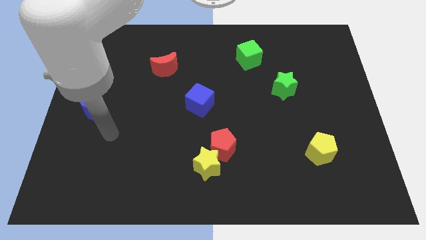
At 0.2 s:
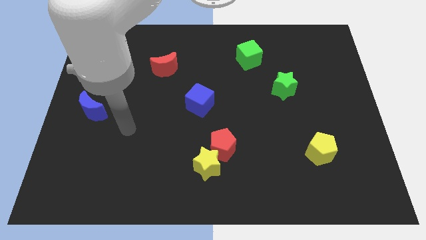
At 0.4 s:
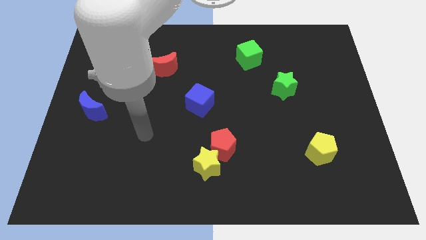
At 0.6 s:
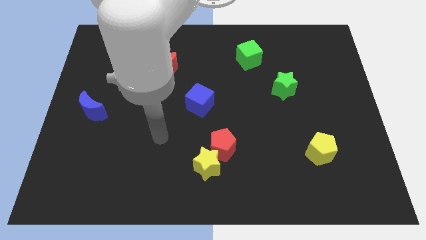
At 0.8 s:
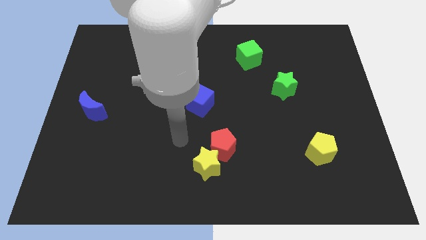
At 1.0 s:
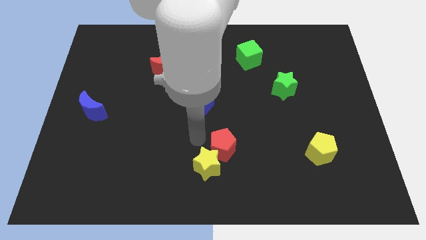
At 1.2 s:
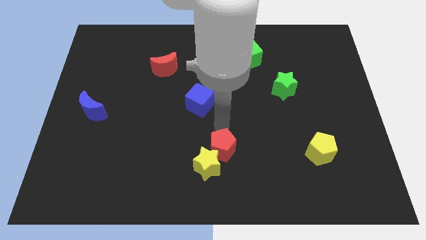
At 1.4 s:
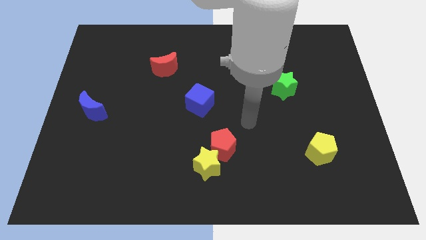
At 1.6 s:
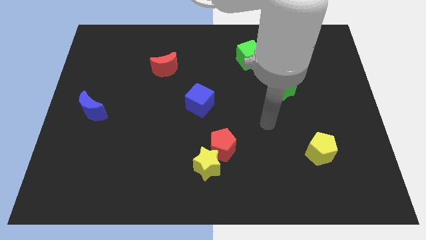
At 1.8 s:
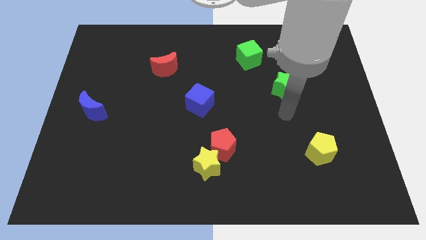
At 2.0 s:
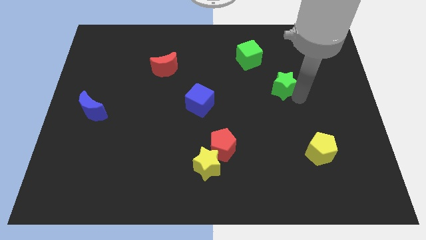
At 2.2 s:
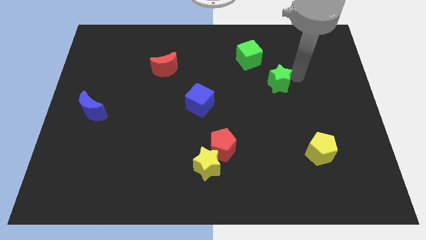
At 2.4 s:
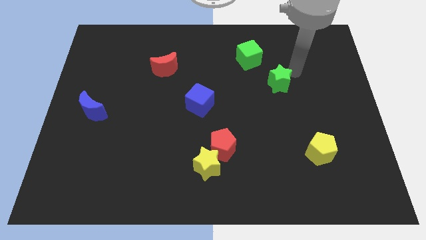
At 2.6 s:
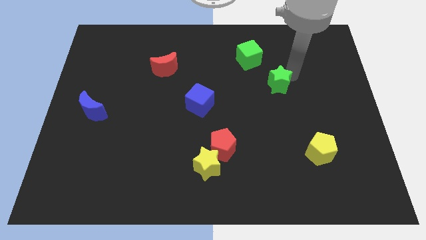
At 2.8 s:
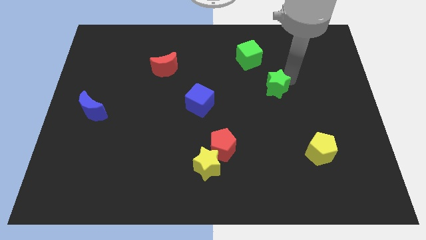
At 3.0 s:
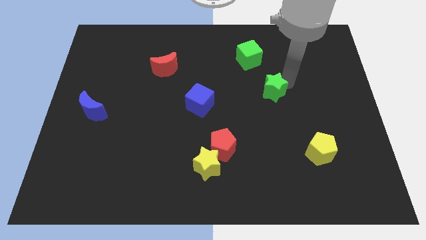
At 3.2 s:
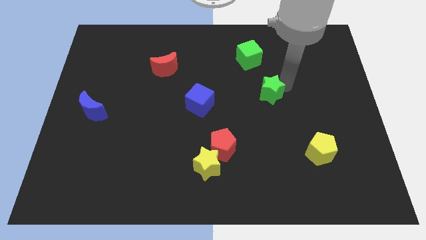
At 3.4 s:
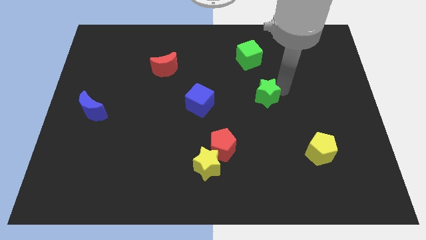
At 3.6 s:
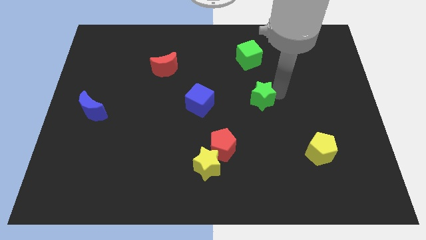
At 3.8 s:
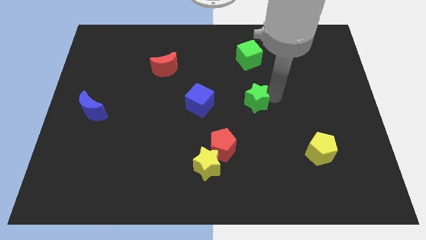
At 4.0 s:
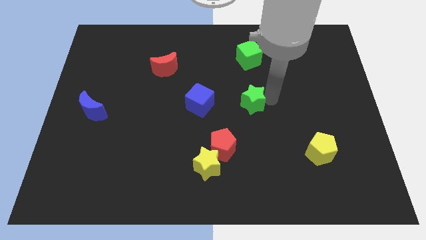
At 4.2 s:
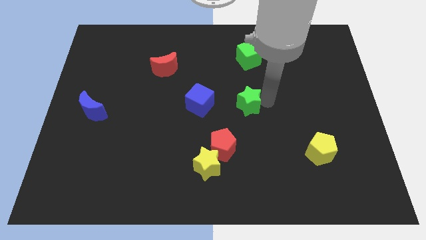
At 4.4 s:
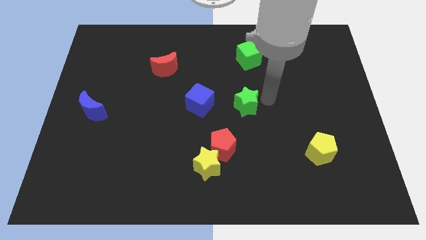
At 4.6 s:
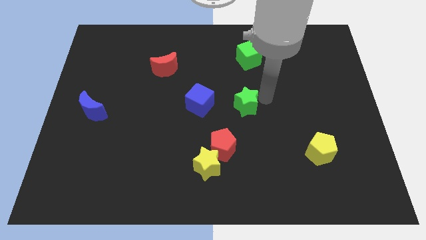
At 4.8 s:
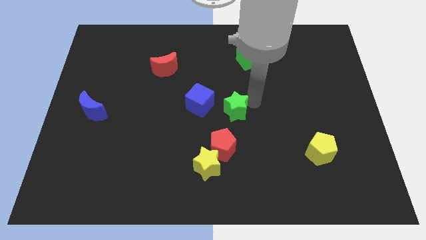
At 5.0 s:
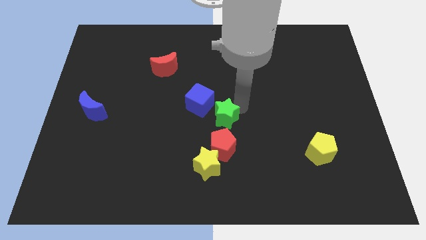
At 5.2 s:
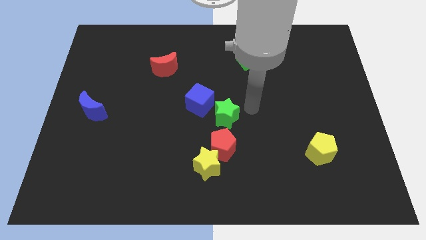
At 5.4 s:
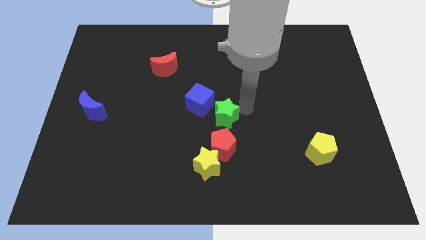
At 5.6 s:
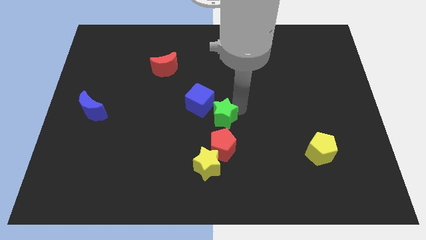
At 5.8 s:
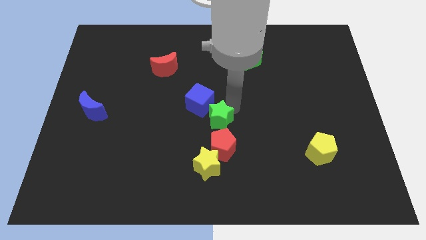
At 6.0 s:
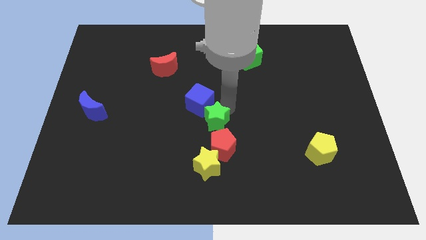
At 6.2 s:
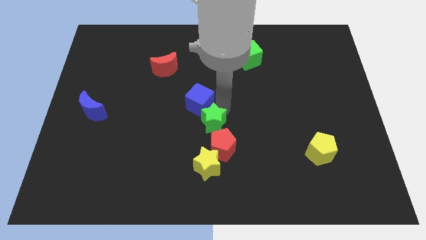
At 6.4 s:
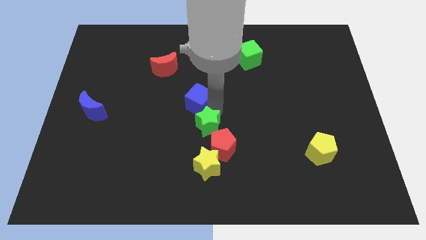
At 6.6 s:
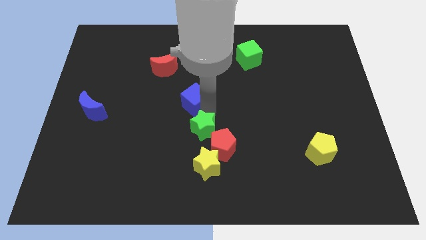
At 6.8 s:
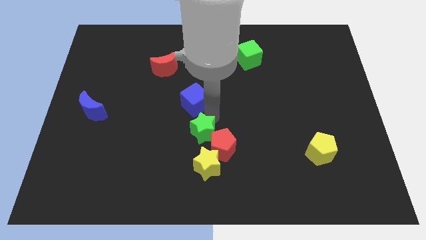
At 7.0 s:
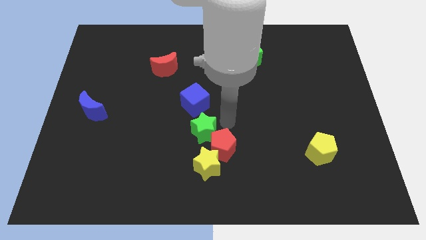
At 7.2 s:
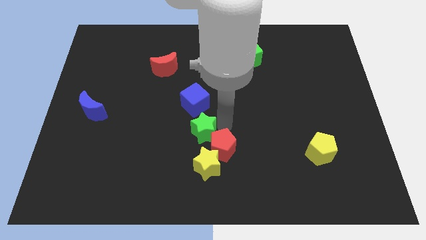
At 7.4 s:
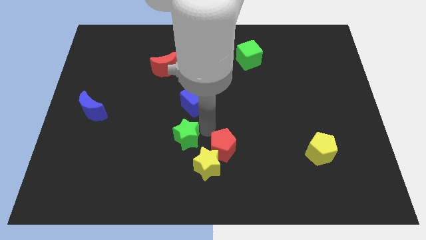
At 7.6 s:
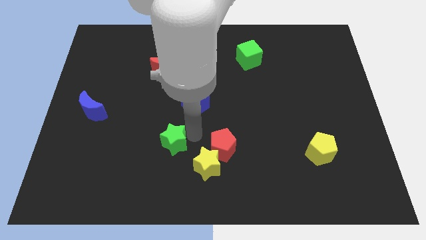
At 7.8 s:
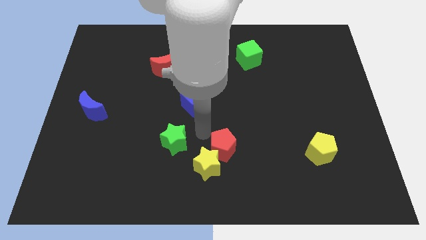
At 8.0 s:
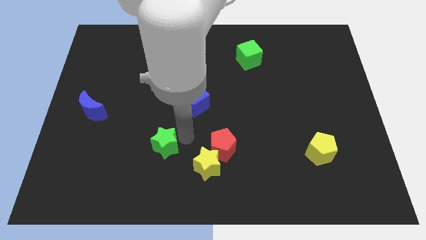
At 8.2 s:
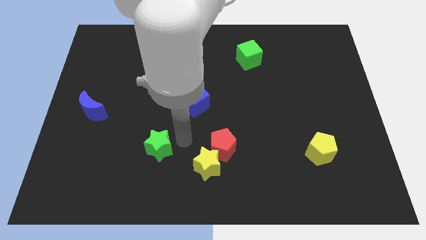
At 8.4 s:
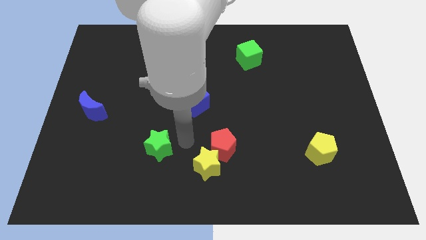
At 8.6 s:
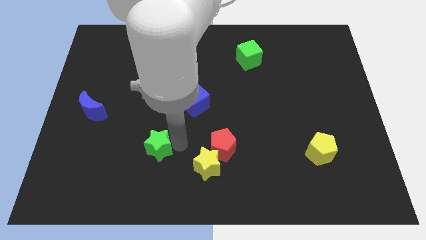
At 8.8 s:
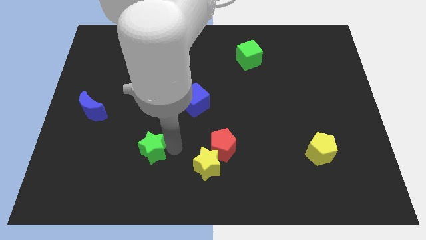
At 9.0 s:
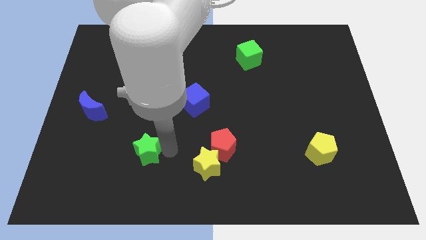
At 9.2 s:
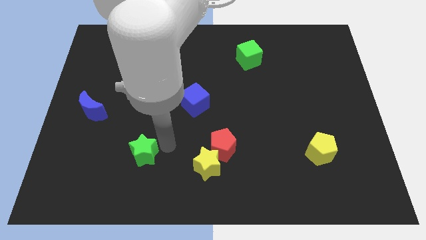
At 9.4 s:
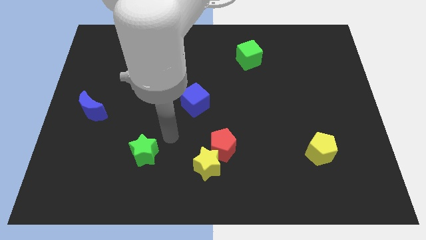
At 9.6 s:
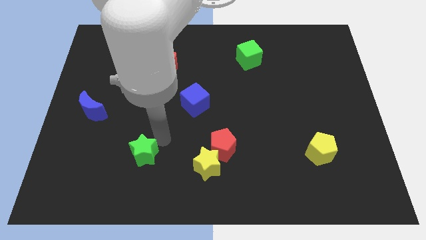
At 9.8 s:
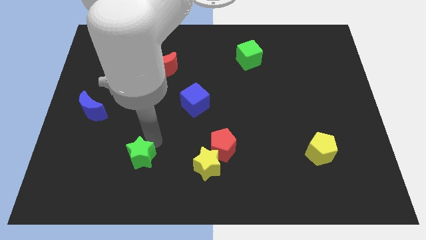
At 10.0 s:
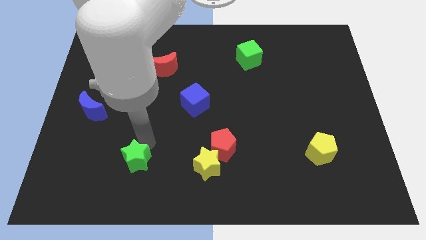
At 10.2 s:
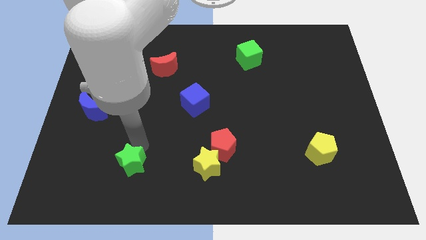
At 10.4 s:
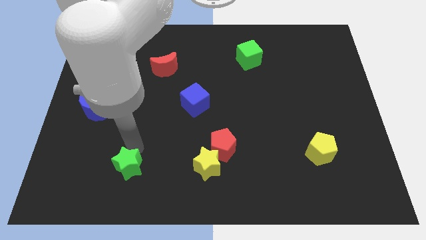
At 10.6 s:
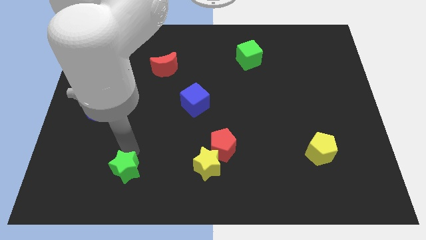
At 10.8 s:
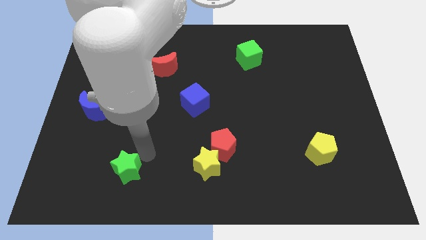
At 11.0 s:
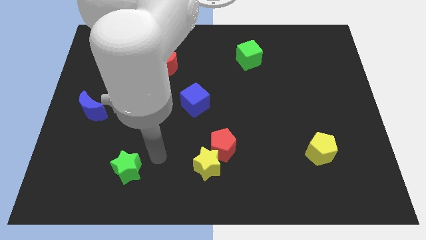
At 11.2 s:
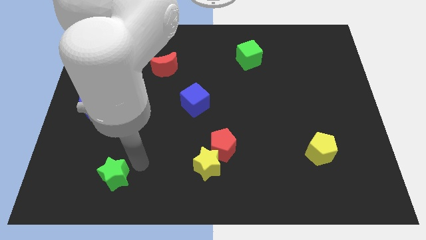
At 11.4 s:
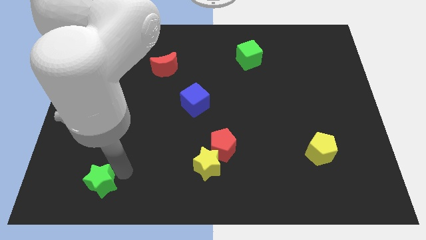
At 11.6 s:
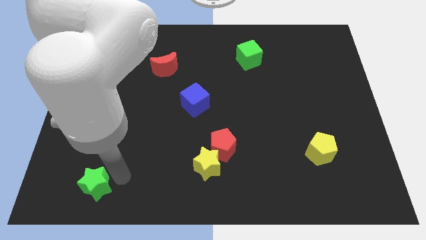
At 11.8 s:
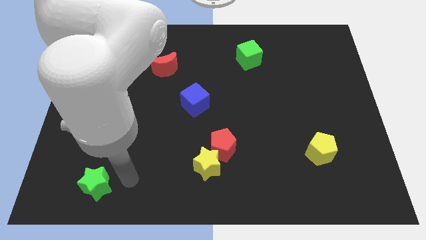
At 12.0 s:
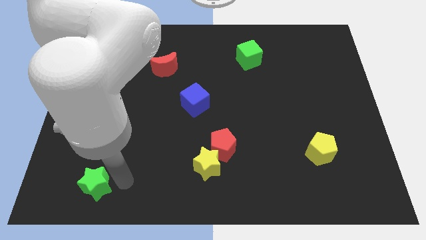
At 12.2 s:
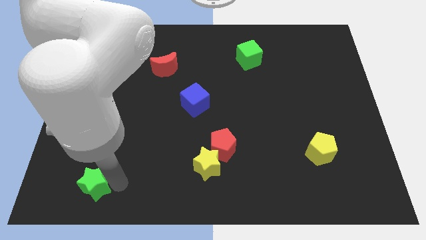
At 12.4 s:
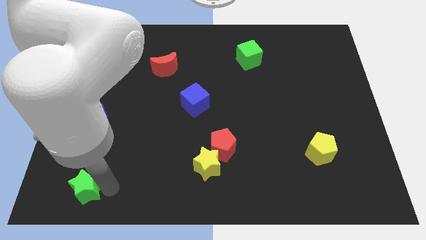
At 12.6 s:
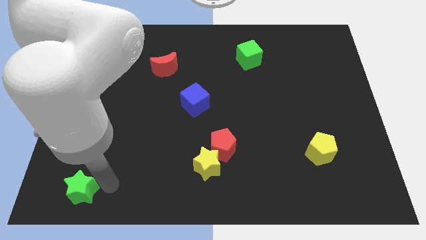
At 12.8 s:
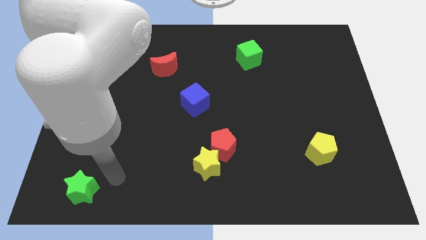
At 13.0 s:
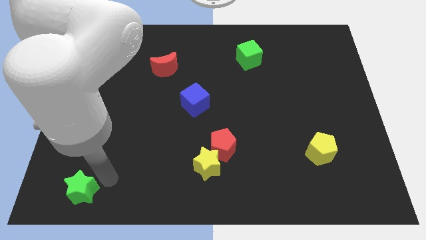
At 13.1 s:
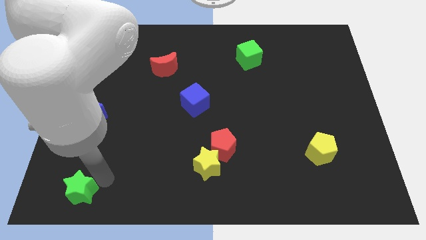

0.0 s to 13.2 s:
put the green star to the bottom left of the board
